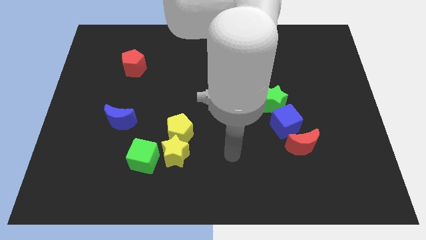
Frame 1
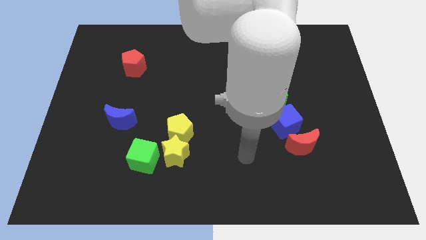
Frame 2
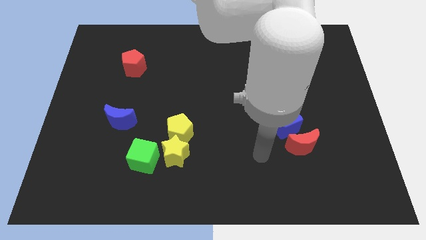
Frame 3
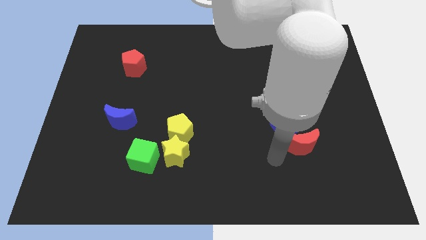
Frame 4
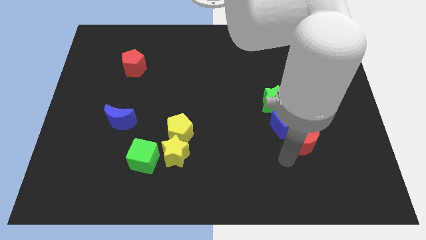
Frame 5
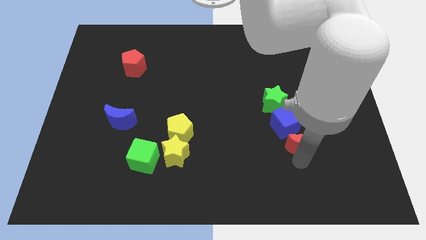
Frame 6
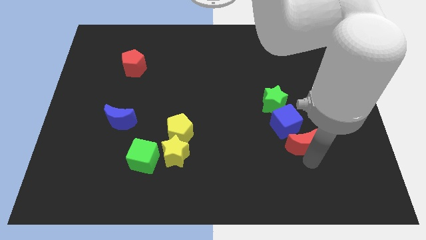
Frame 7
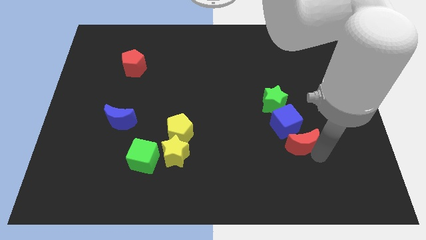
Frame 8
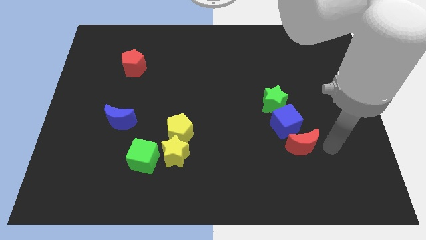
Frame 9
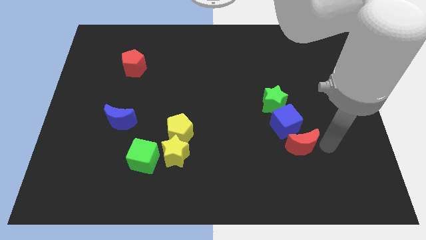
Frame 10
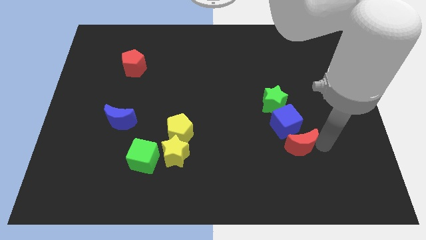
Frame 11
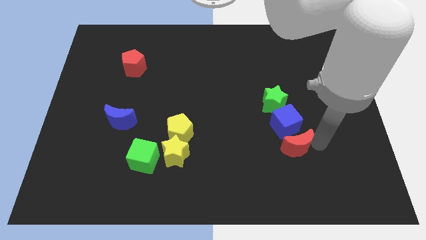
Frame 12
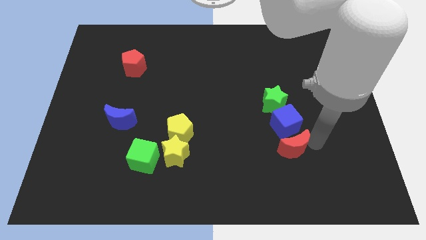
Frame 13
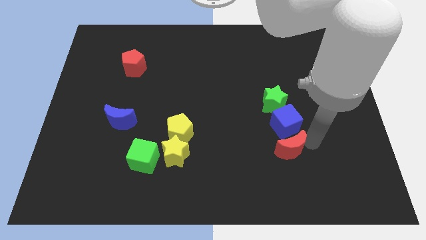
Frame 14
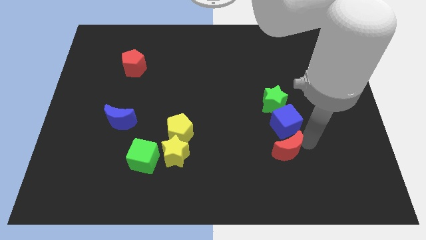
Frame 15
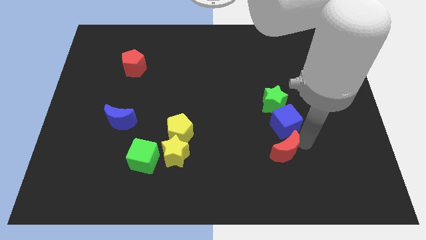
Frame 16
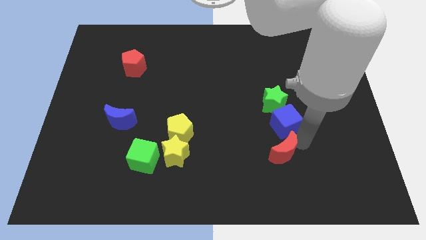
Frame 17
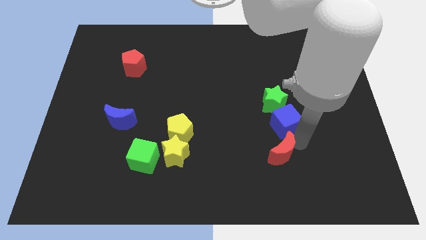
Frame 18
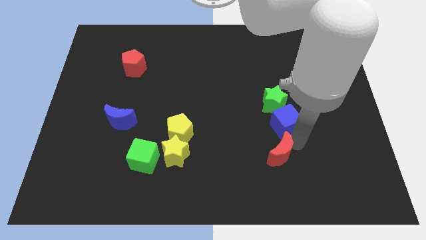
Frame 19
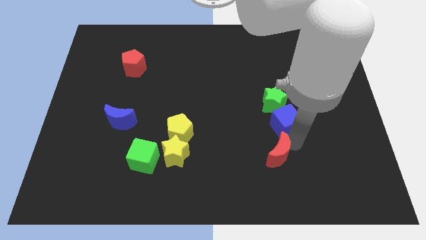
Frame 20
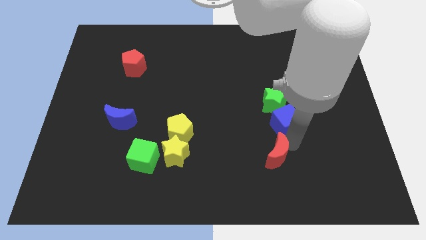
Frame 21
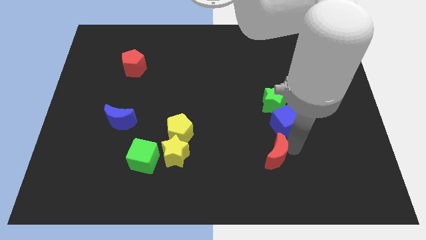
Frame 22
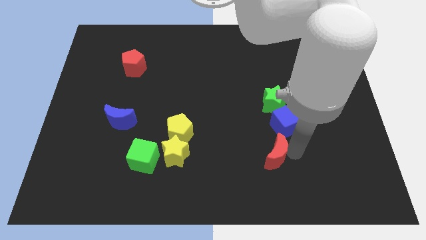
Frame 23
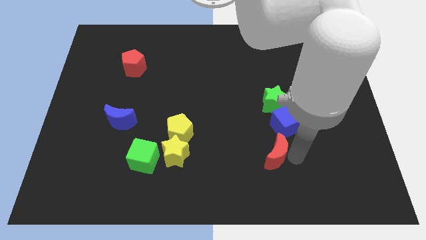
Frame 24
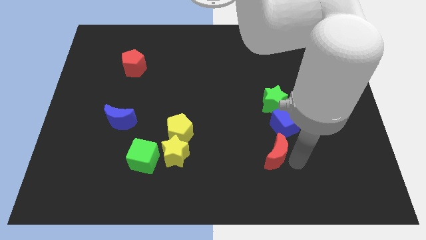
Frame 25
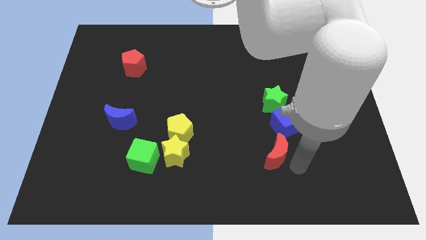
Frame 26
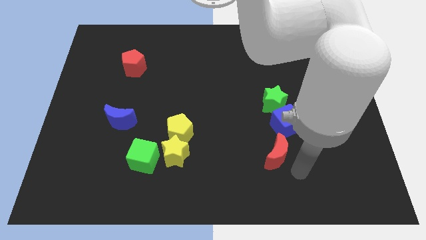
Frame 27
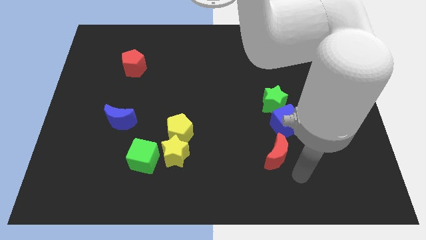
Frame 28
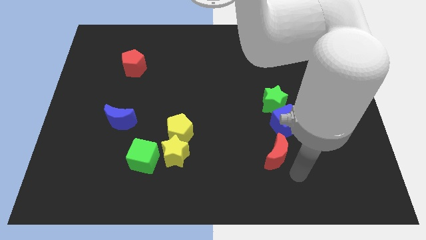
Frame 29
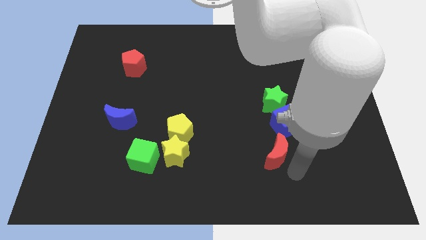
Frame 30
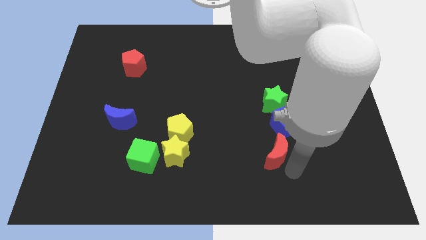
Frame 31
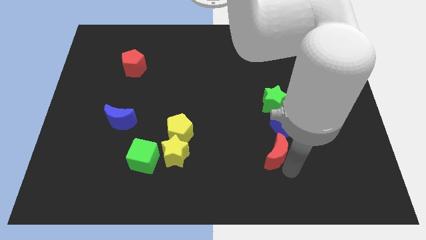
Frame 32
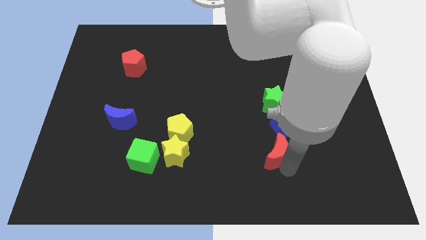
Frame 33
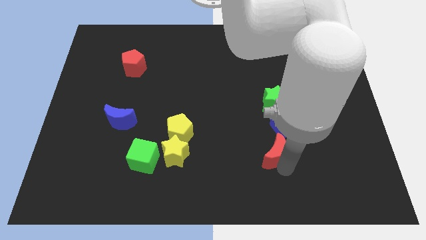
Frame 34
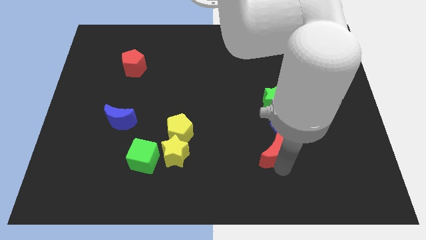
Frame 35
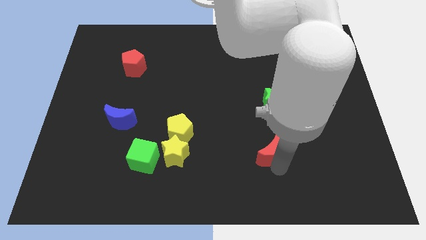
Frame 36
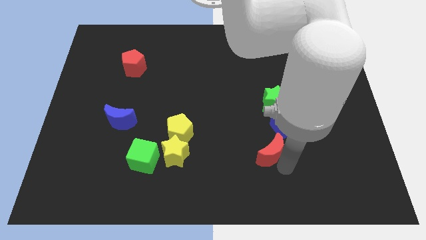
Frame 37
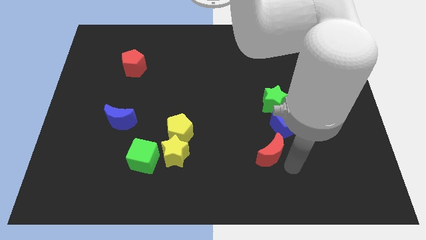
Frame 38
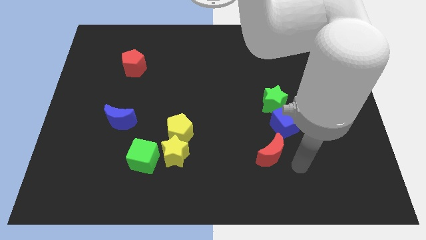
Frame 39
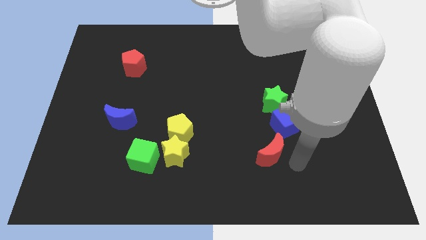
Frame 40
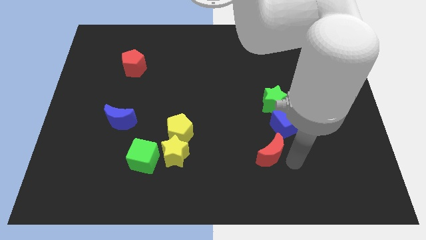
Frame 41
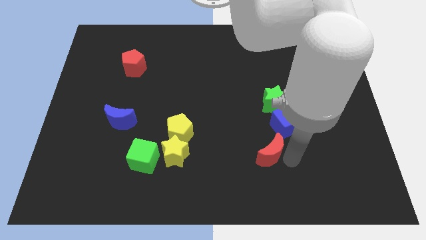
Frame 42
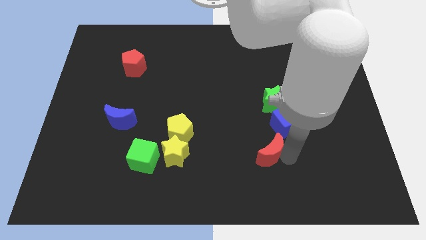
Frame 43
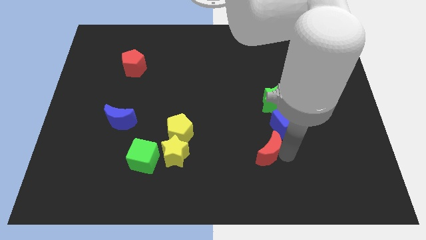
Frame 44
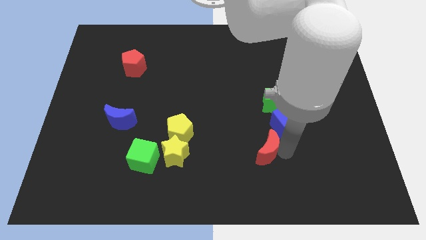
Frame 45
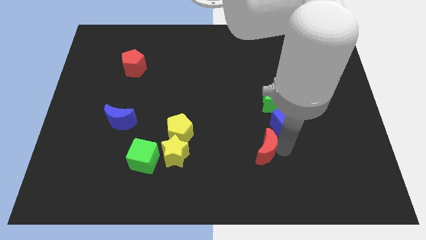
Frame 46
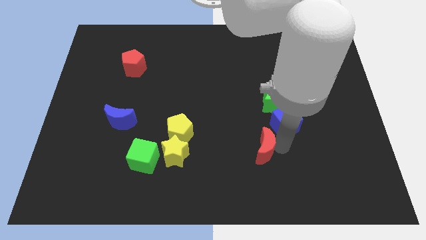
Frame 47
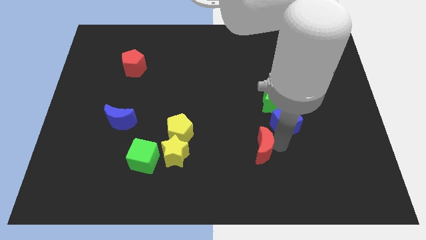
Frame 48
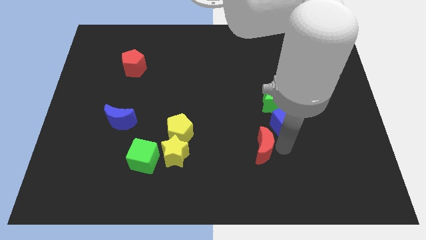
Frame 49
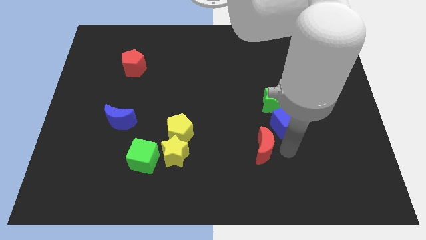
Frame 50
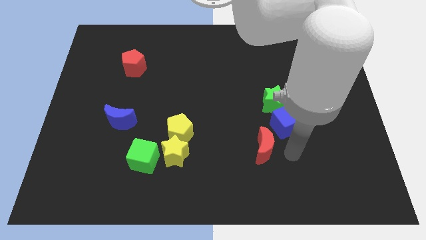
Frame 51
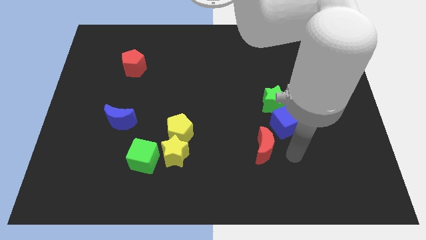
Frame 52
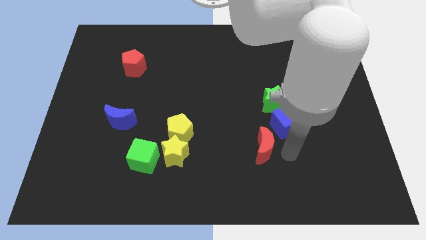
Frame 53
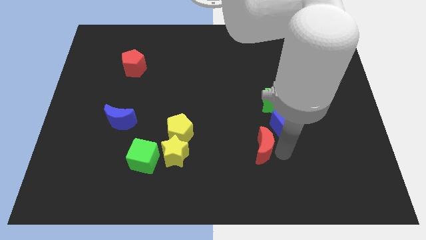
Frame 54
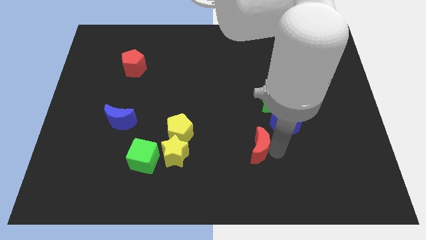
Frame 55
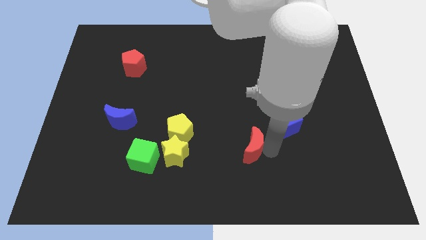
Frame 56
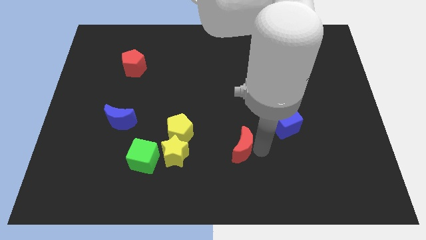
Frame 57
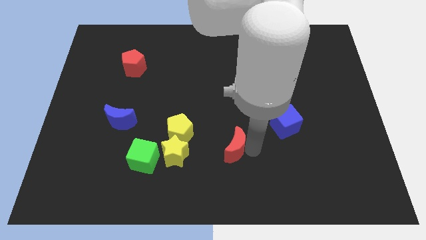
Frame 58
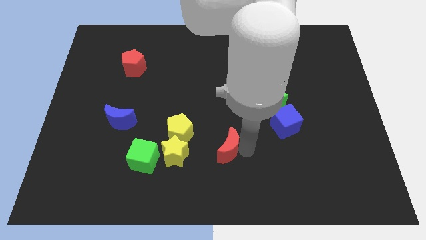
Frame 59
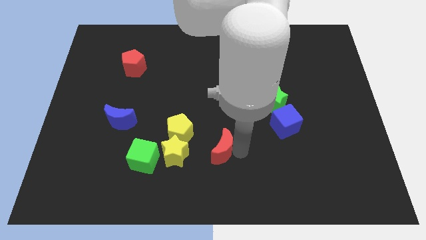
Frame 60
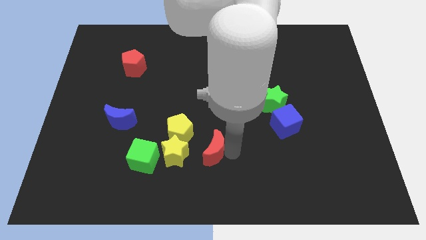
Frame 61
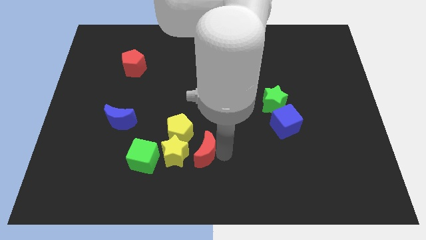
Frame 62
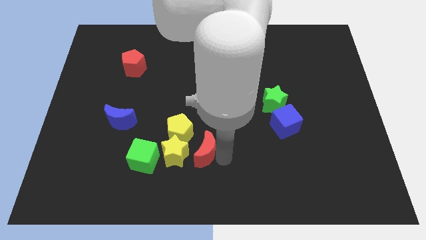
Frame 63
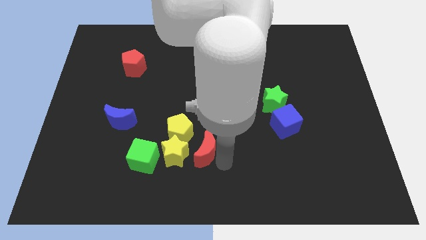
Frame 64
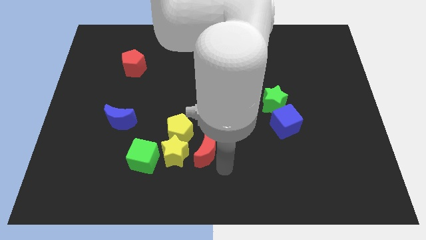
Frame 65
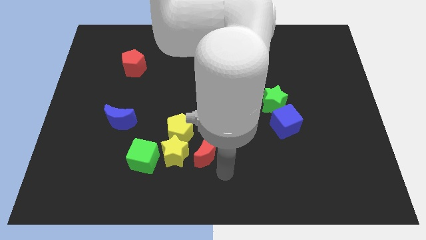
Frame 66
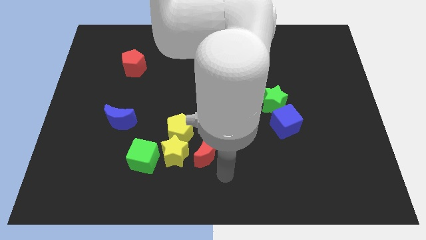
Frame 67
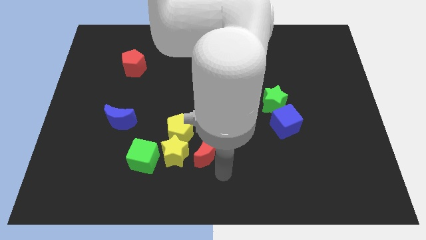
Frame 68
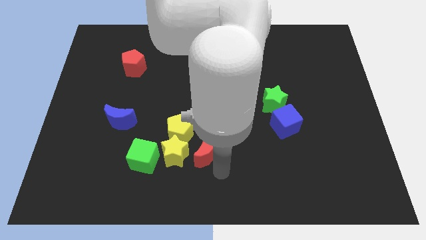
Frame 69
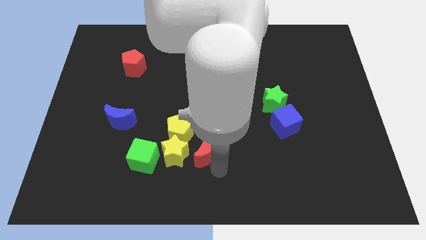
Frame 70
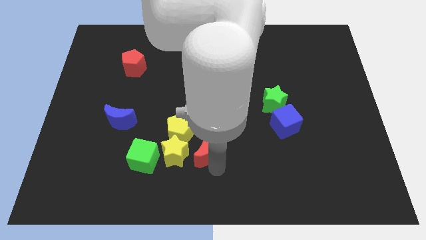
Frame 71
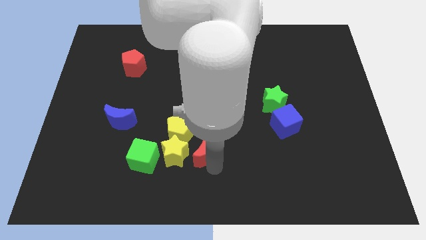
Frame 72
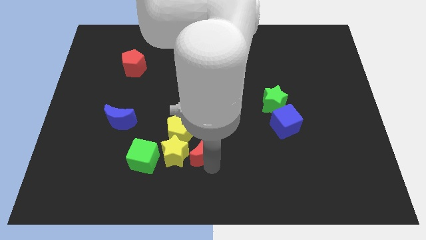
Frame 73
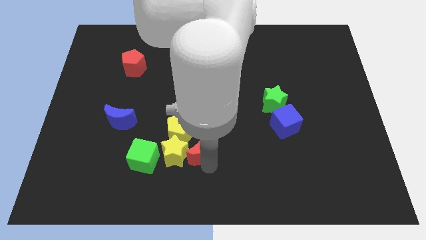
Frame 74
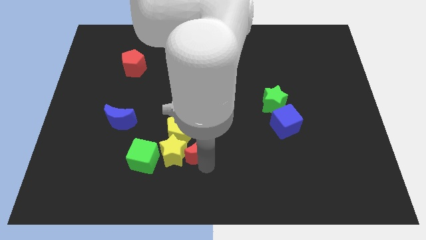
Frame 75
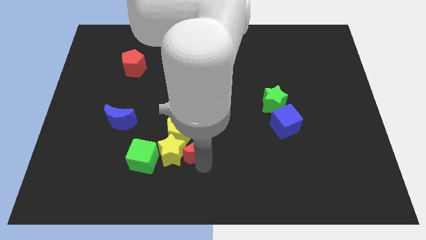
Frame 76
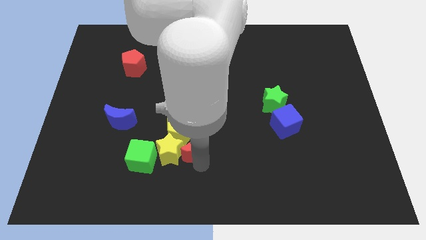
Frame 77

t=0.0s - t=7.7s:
push the red moon towards the yellow pentagon
